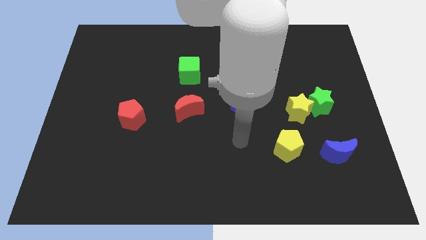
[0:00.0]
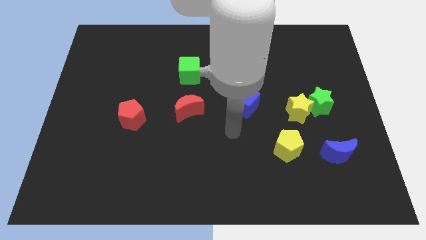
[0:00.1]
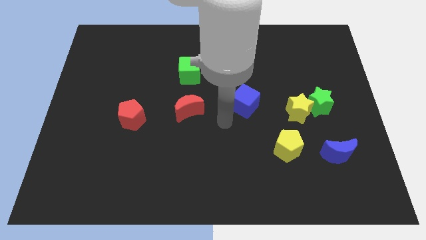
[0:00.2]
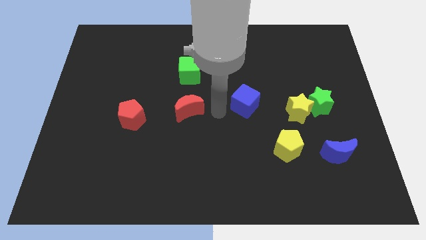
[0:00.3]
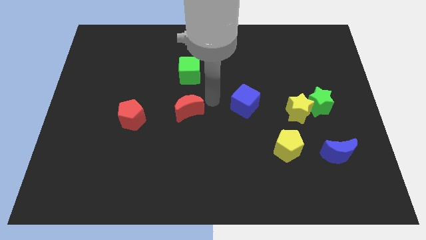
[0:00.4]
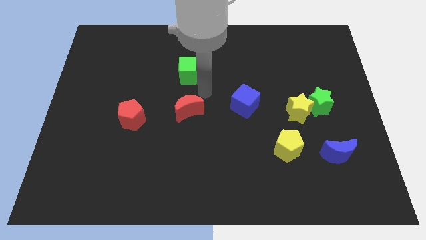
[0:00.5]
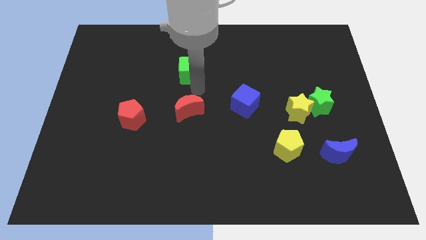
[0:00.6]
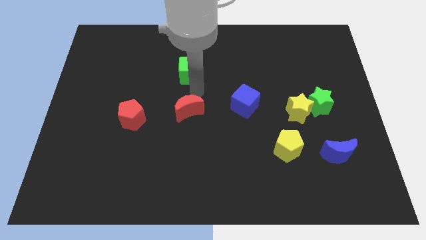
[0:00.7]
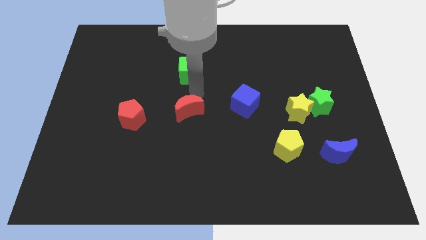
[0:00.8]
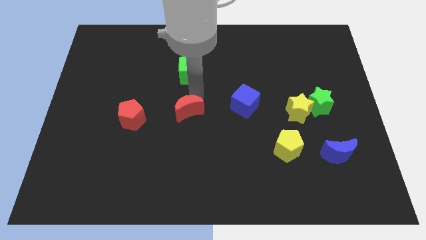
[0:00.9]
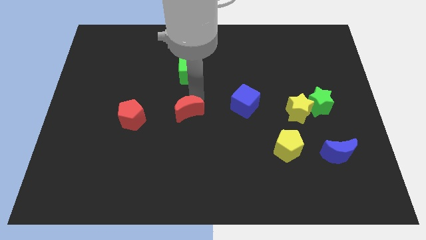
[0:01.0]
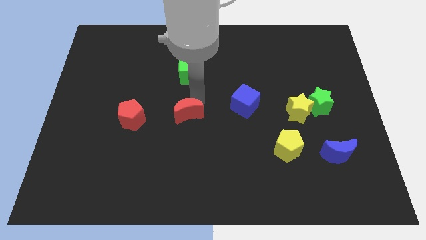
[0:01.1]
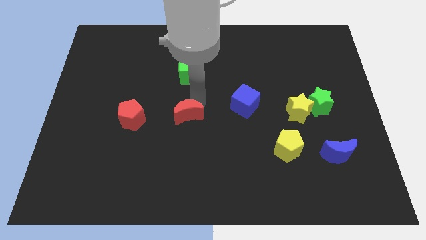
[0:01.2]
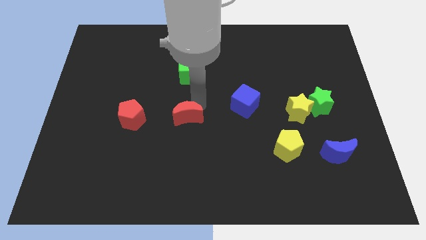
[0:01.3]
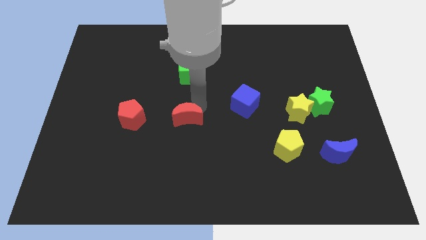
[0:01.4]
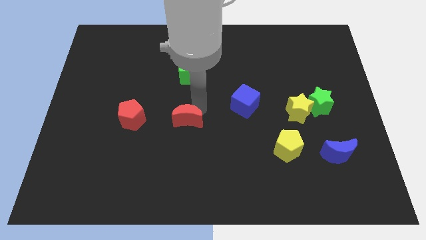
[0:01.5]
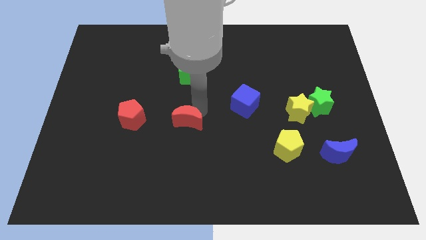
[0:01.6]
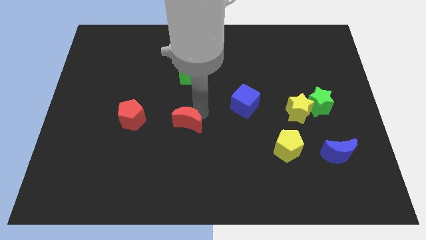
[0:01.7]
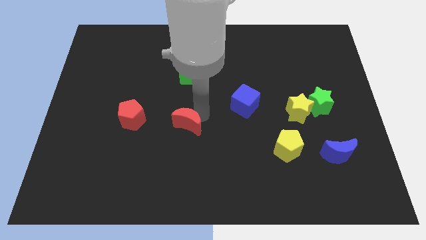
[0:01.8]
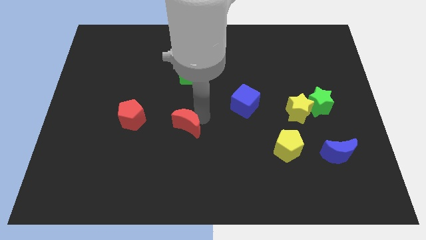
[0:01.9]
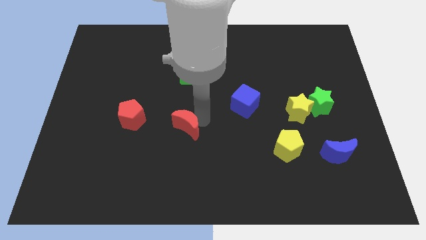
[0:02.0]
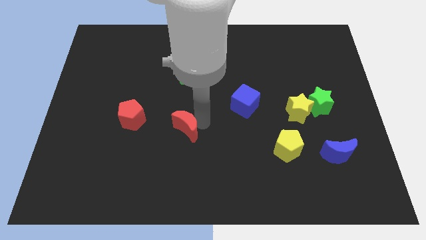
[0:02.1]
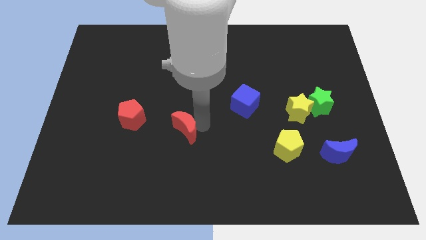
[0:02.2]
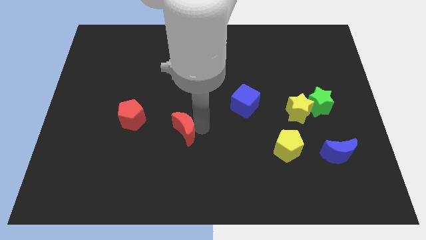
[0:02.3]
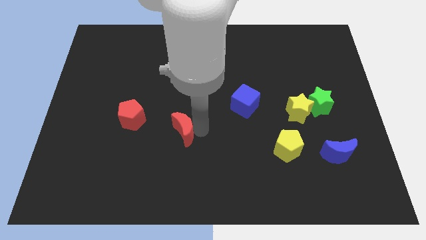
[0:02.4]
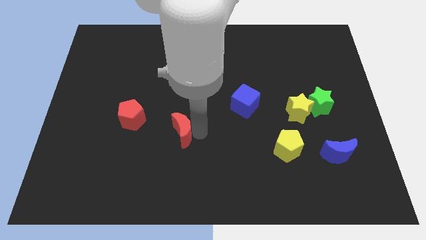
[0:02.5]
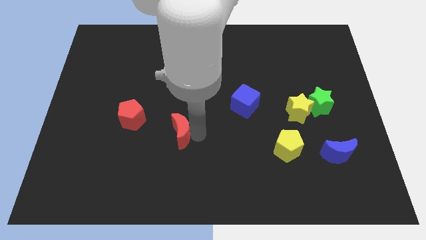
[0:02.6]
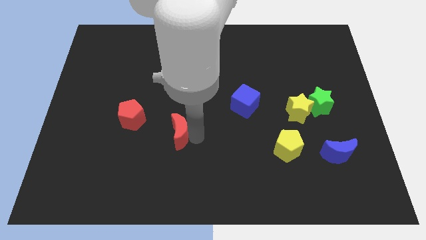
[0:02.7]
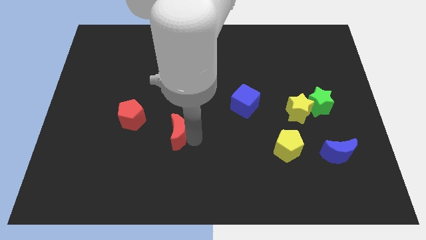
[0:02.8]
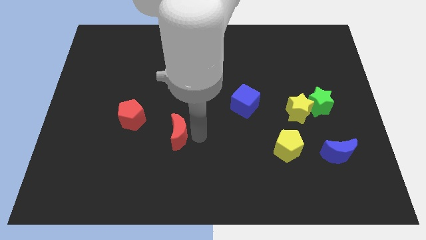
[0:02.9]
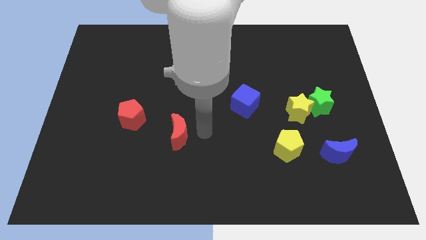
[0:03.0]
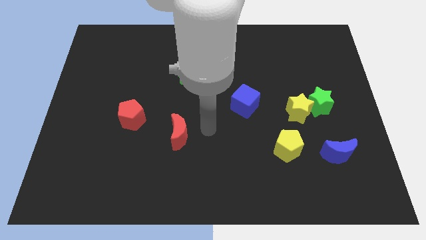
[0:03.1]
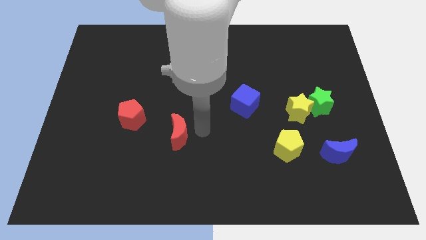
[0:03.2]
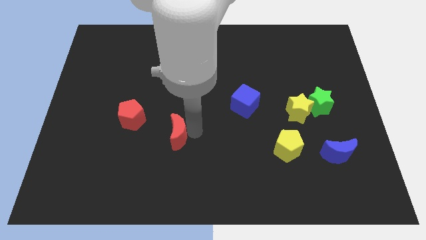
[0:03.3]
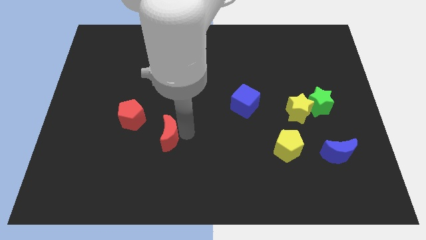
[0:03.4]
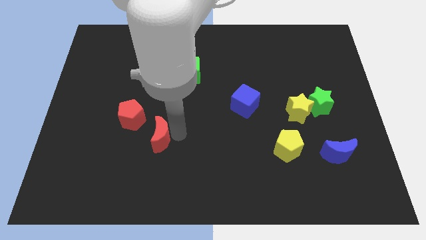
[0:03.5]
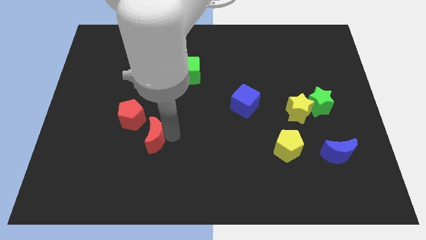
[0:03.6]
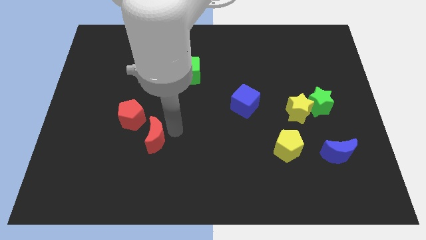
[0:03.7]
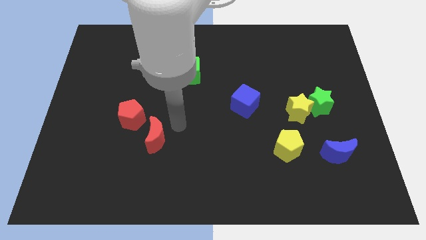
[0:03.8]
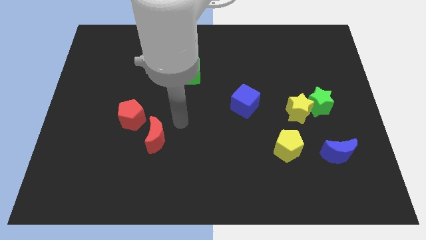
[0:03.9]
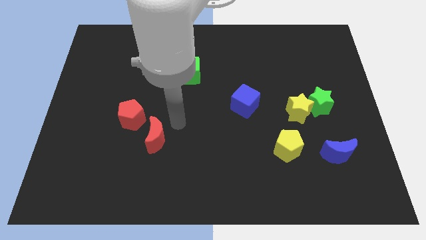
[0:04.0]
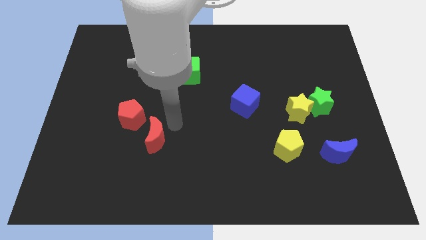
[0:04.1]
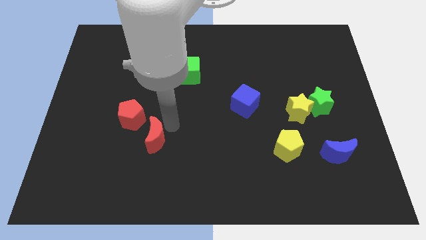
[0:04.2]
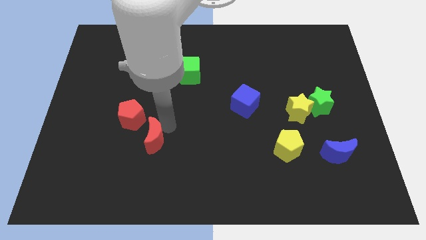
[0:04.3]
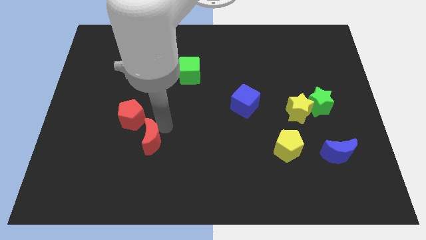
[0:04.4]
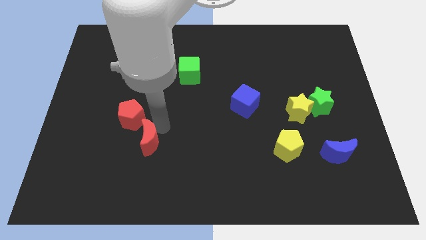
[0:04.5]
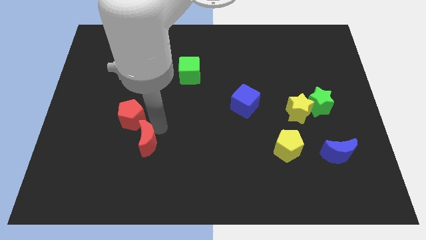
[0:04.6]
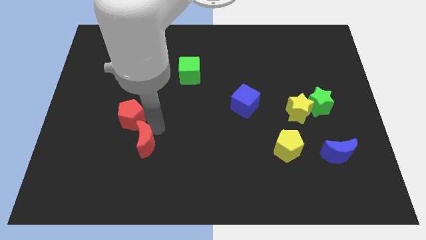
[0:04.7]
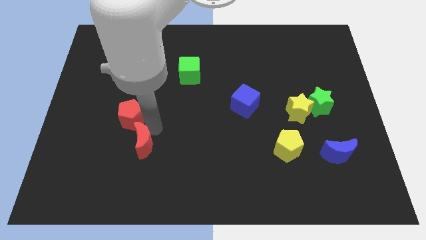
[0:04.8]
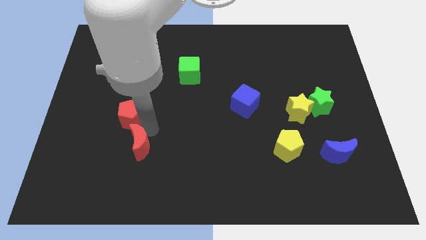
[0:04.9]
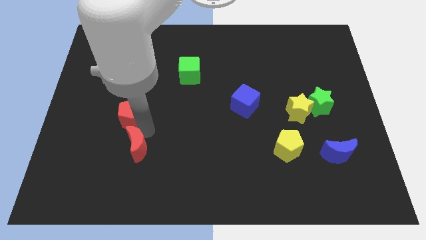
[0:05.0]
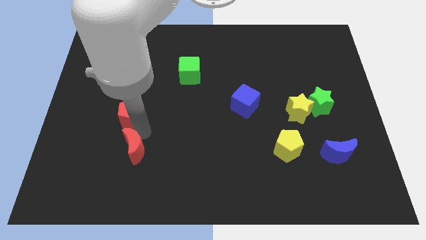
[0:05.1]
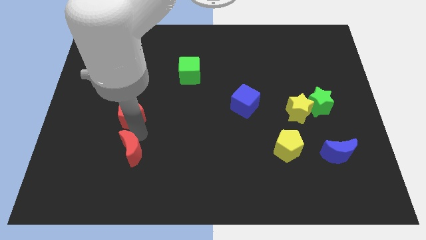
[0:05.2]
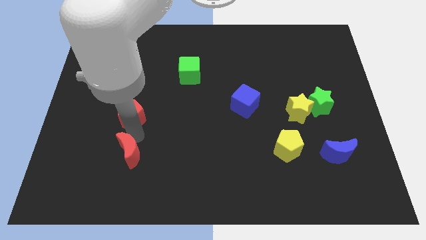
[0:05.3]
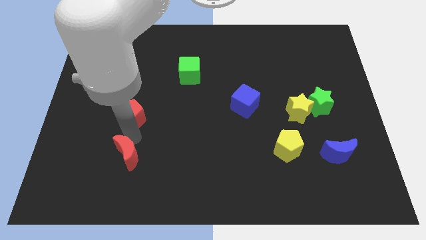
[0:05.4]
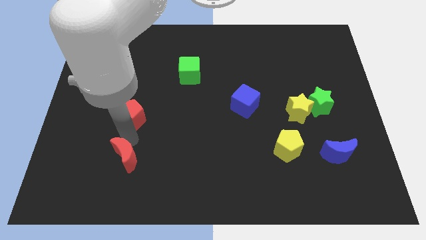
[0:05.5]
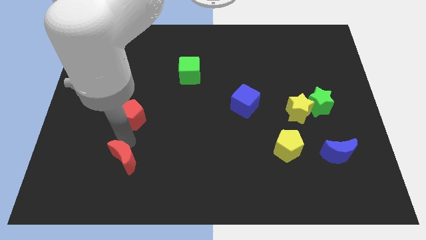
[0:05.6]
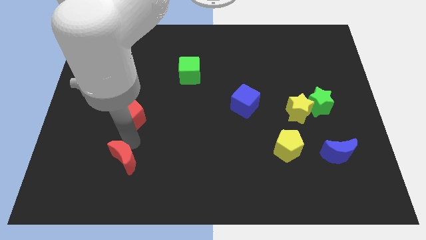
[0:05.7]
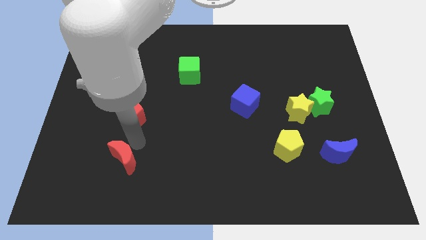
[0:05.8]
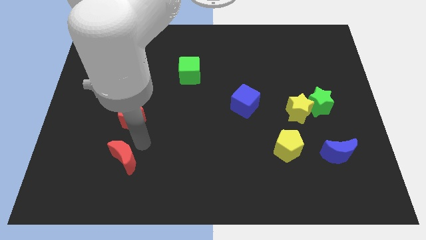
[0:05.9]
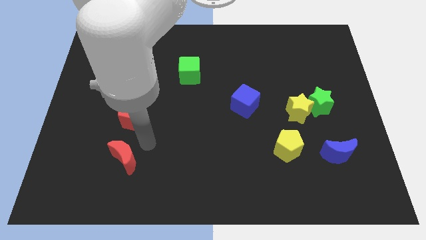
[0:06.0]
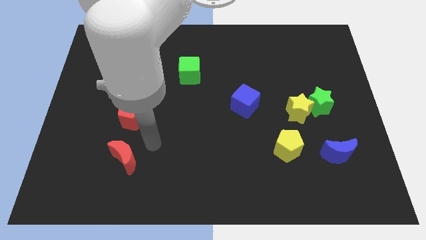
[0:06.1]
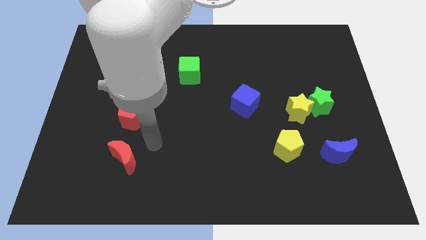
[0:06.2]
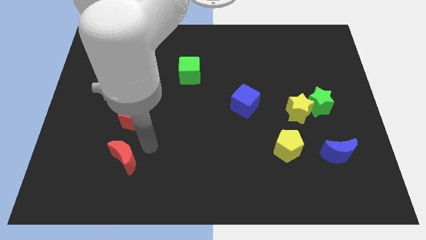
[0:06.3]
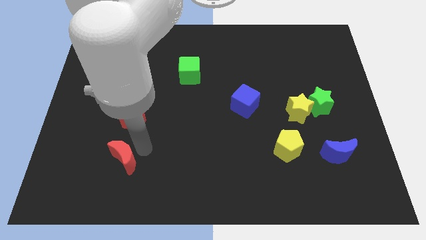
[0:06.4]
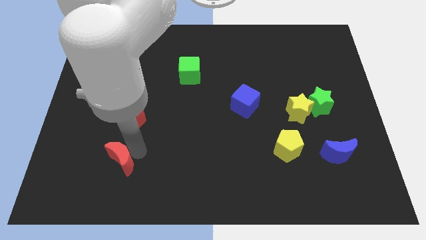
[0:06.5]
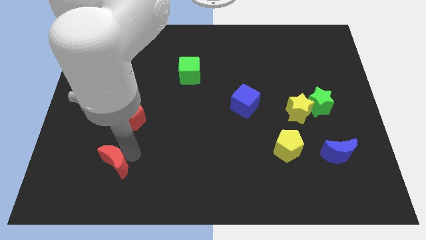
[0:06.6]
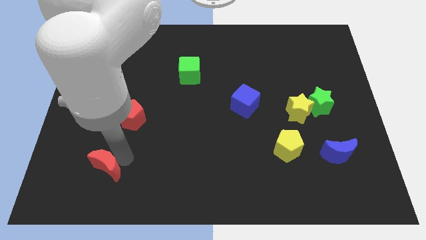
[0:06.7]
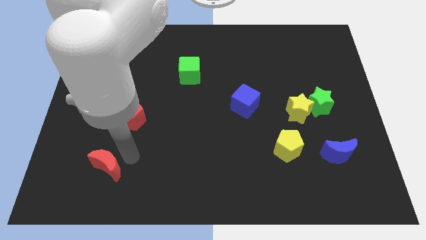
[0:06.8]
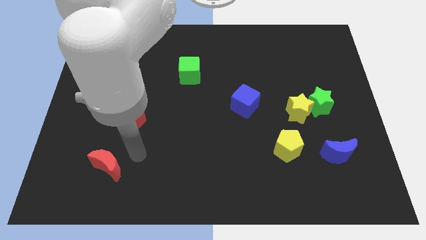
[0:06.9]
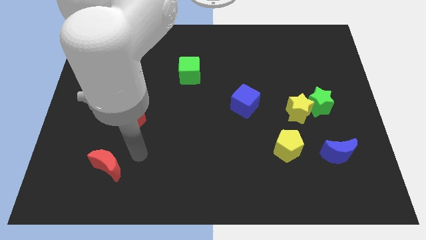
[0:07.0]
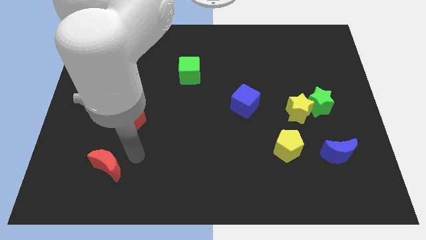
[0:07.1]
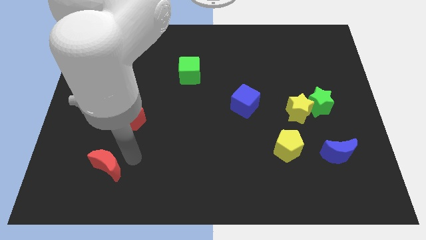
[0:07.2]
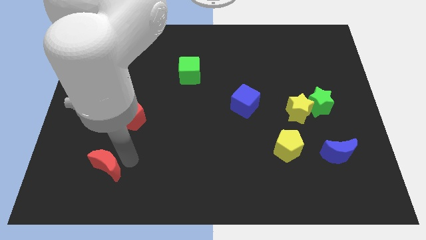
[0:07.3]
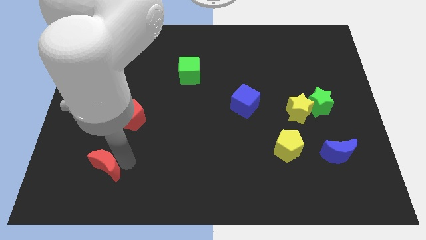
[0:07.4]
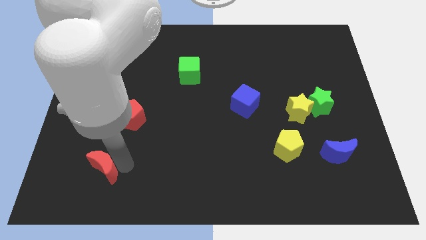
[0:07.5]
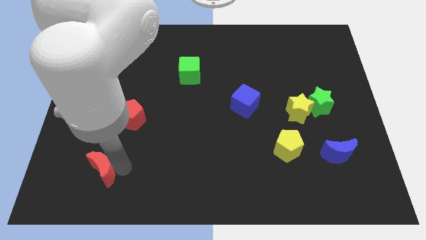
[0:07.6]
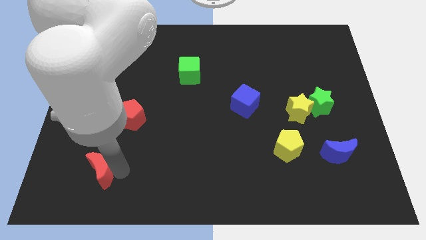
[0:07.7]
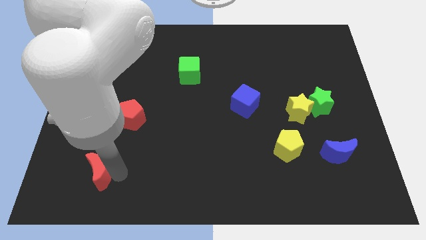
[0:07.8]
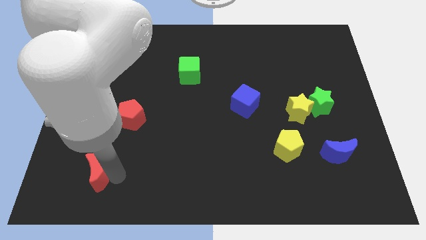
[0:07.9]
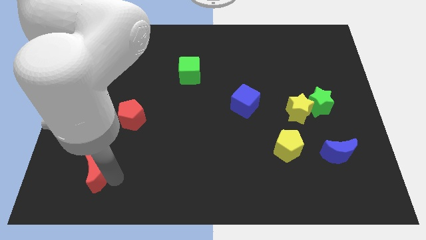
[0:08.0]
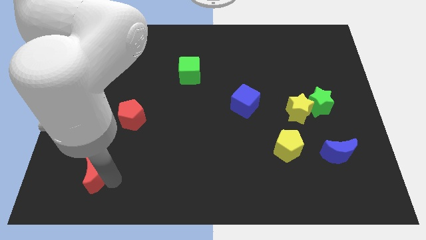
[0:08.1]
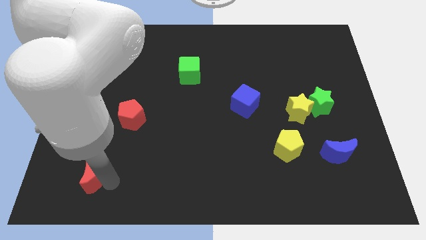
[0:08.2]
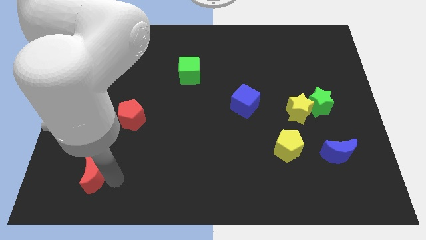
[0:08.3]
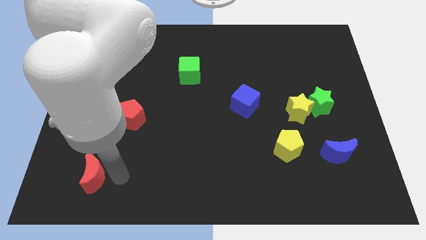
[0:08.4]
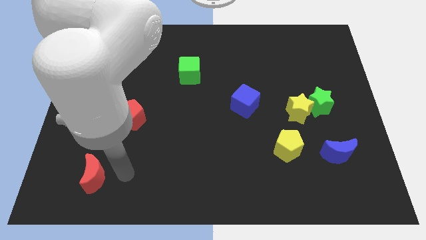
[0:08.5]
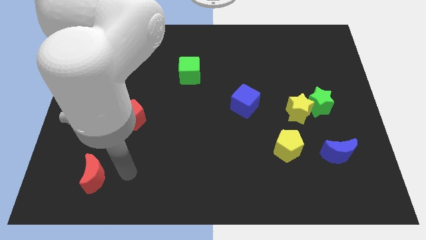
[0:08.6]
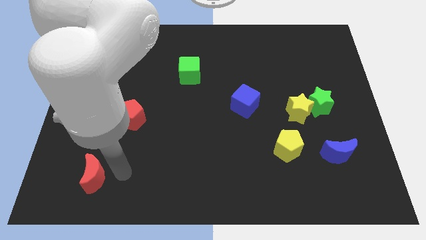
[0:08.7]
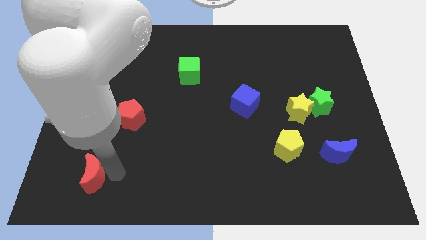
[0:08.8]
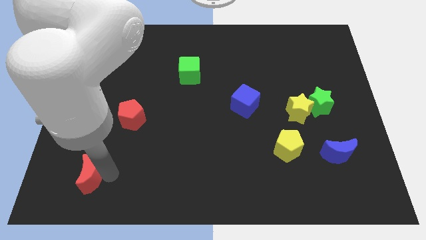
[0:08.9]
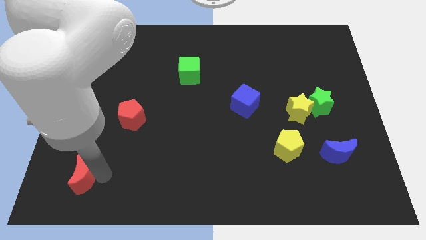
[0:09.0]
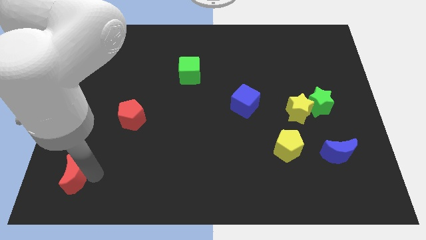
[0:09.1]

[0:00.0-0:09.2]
put the red moon to the bottom left of the board
